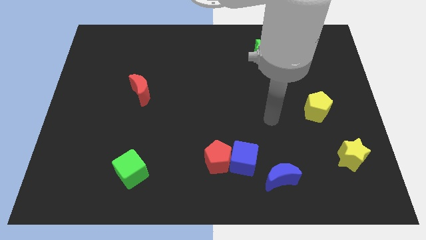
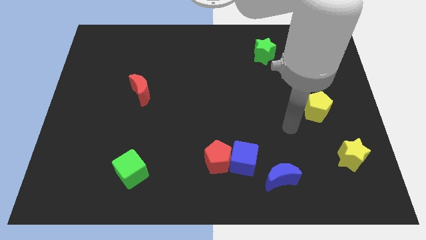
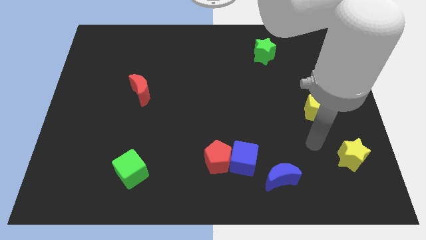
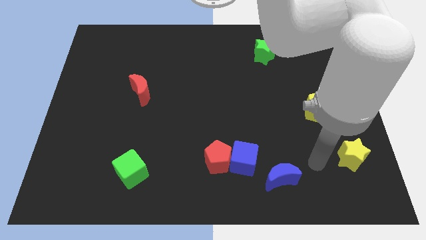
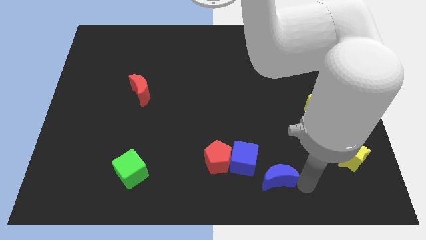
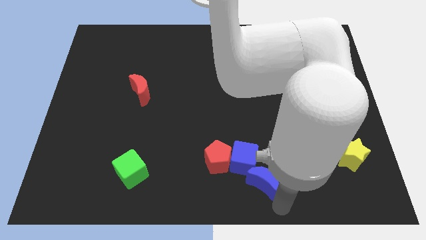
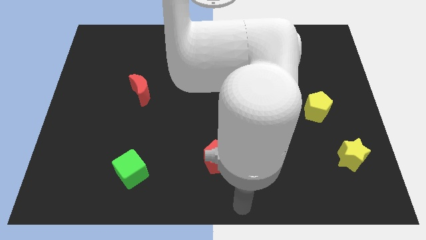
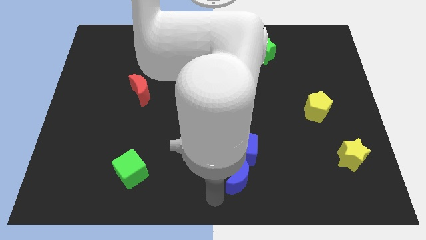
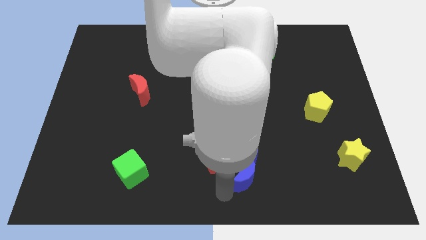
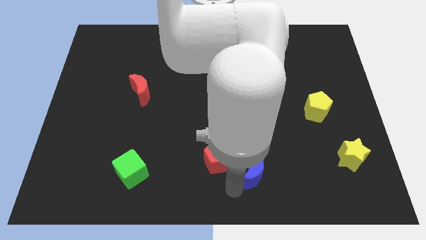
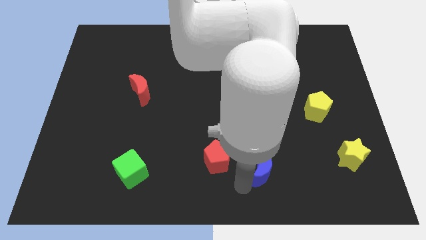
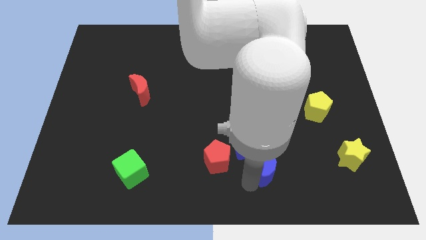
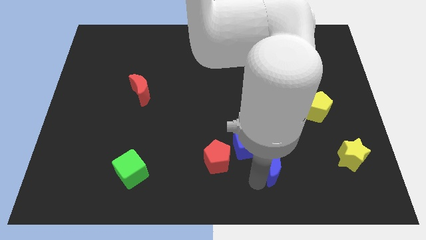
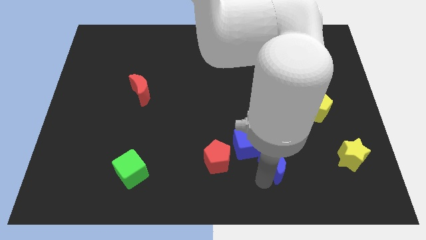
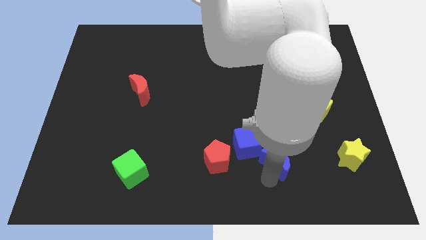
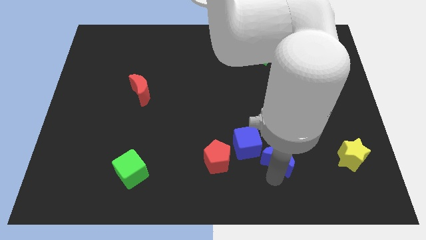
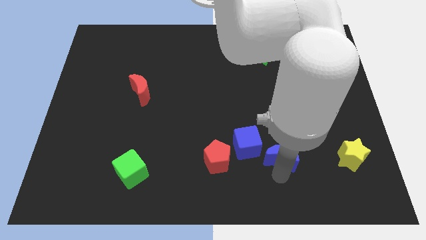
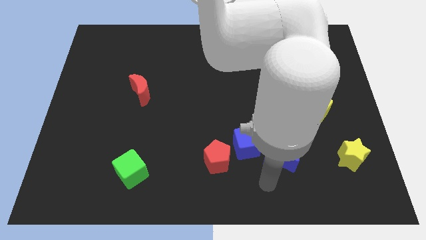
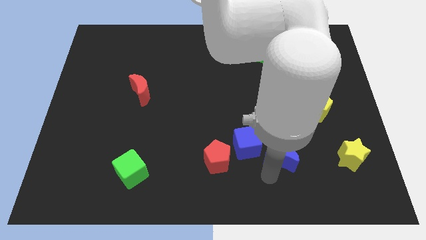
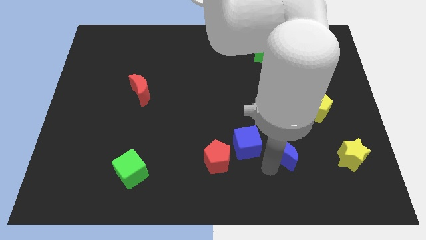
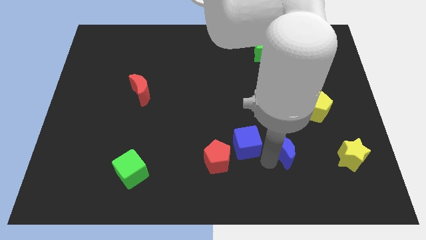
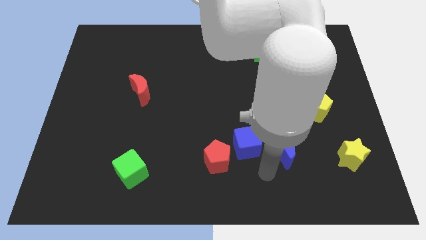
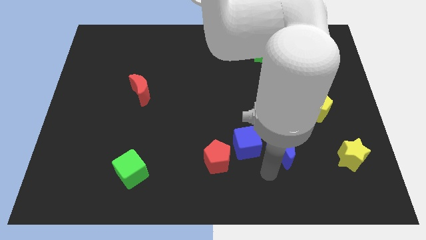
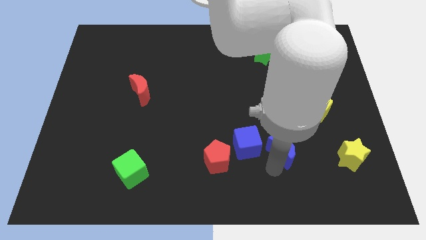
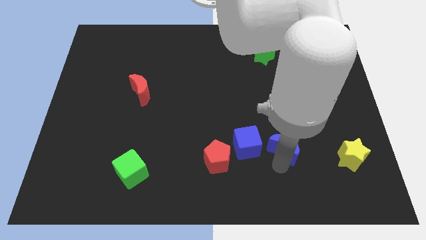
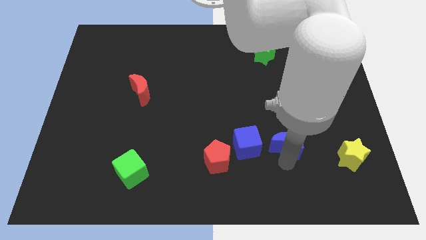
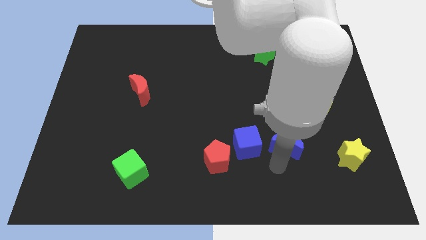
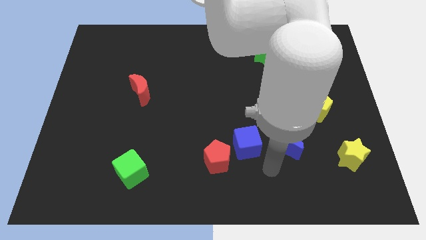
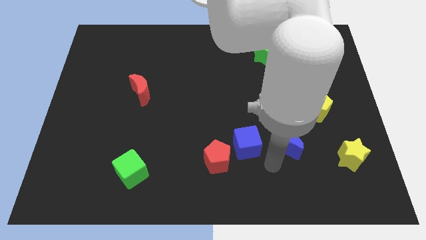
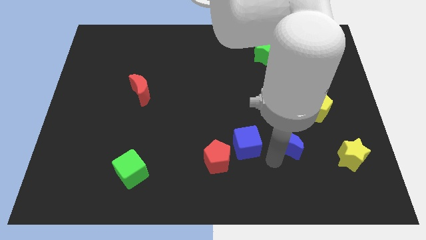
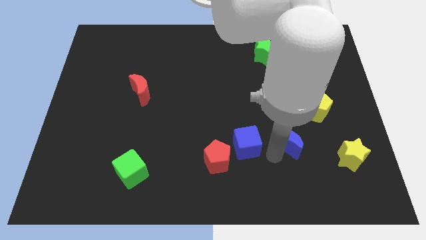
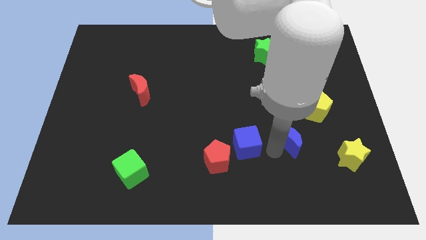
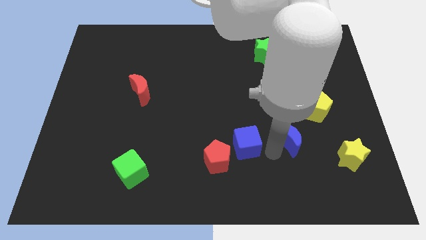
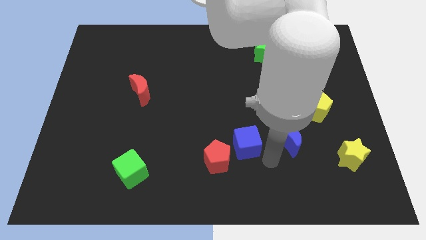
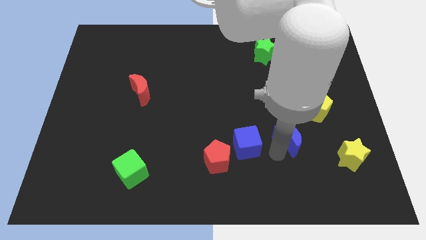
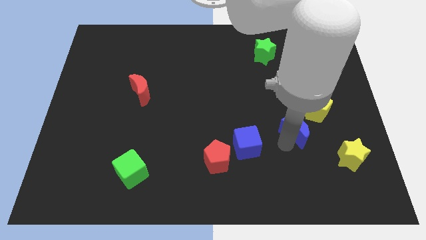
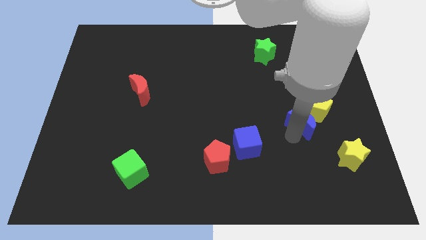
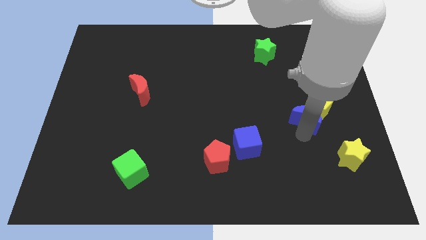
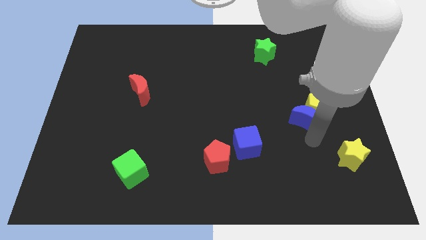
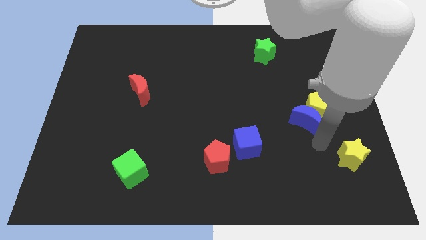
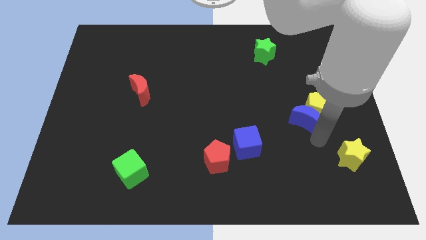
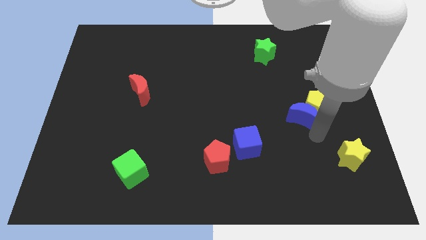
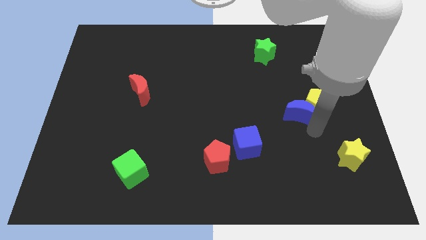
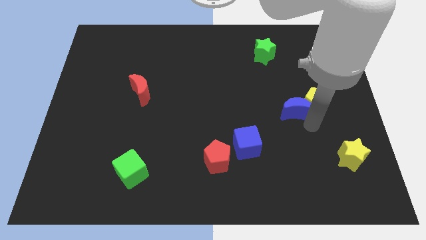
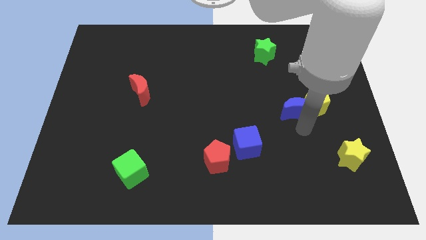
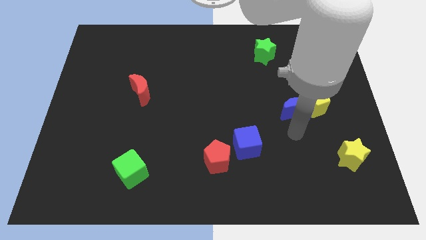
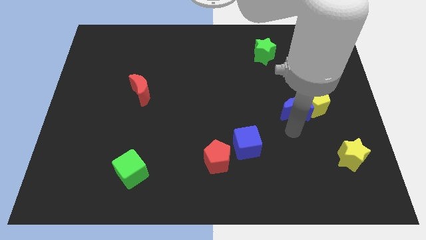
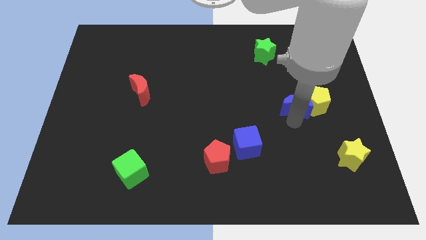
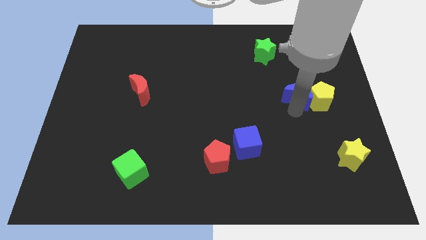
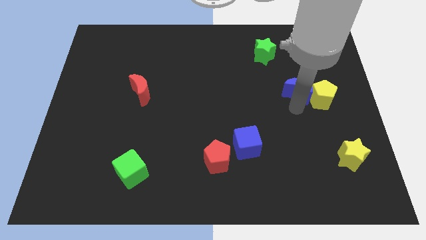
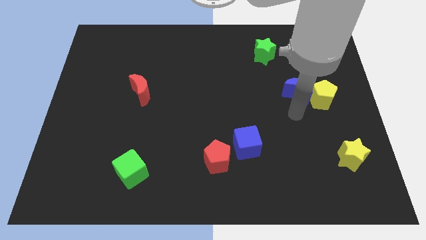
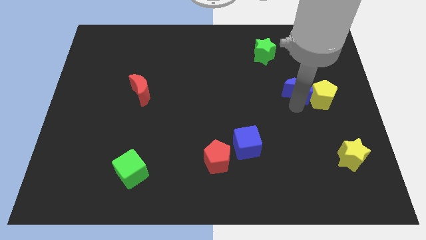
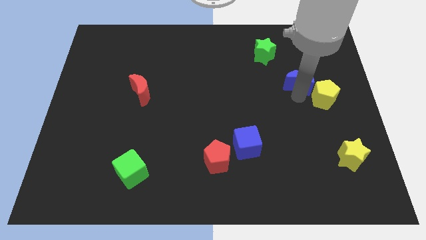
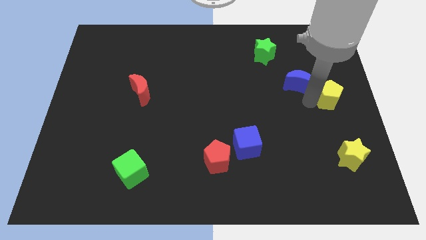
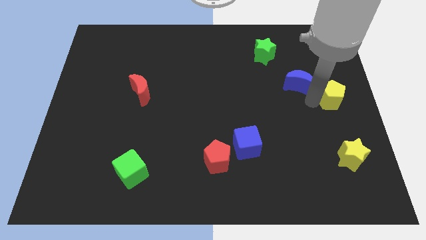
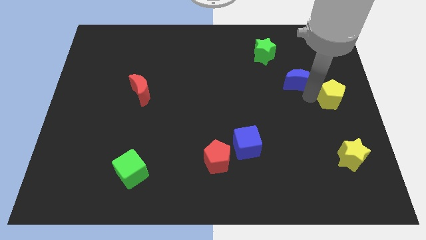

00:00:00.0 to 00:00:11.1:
push the blue moon diagonally down and to the right of the green star

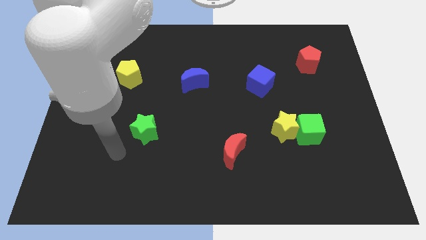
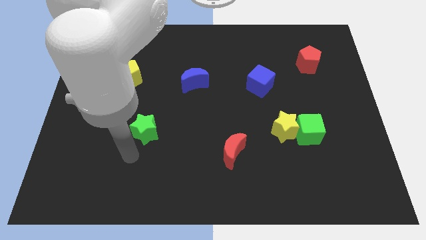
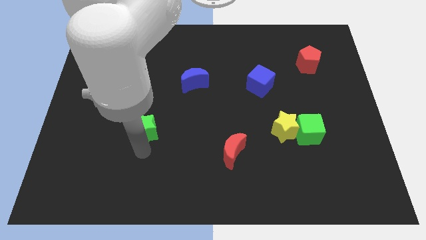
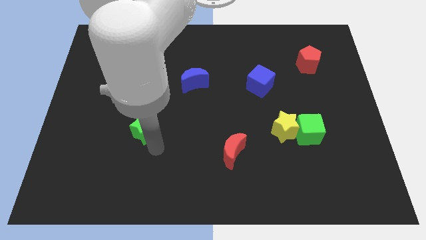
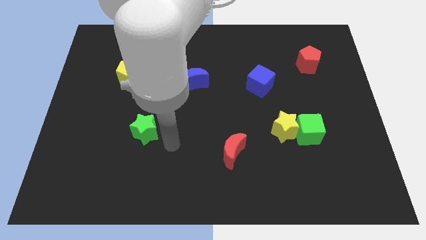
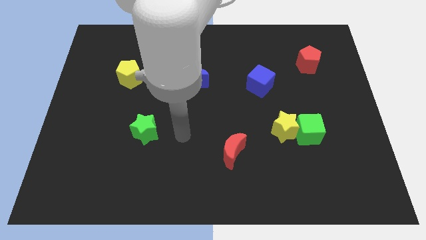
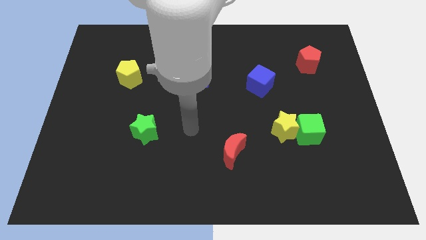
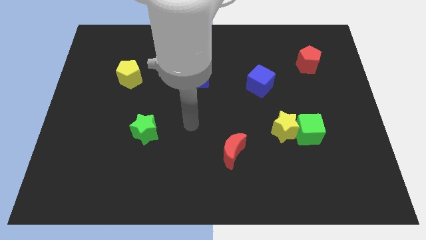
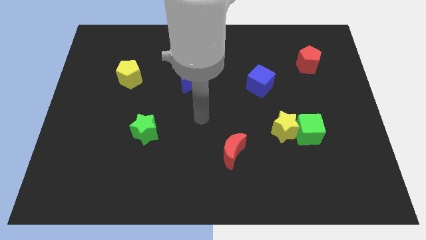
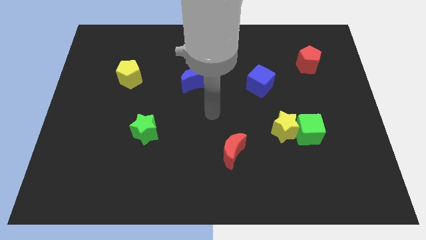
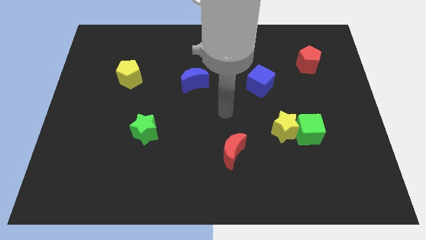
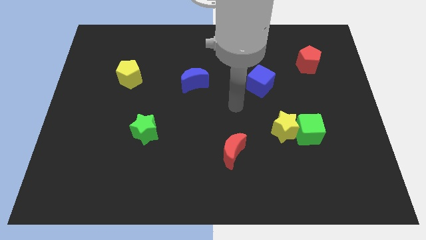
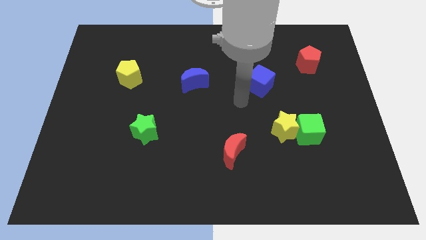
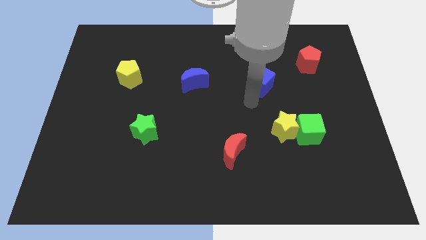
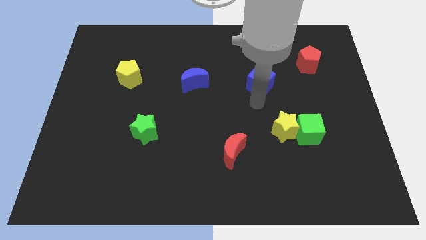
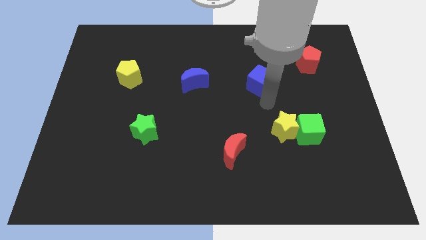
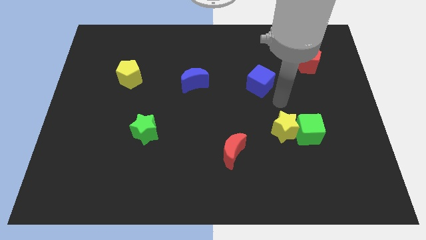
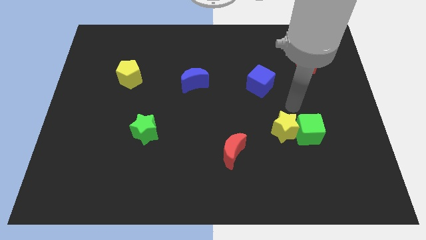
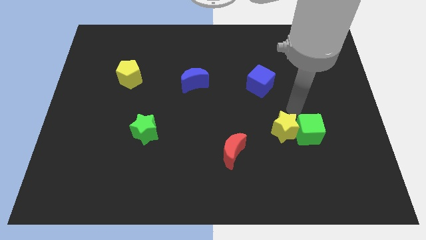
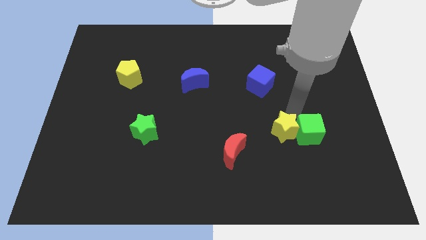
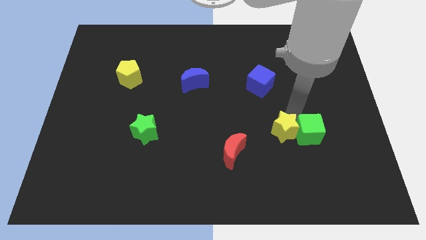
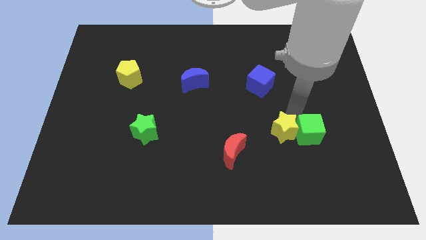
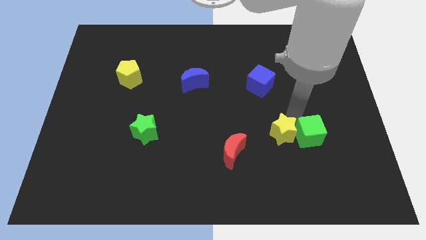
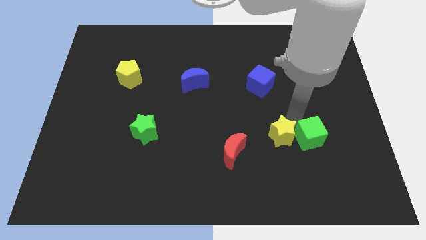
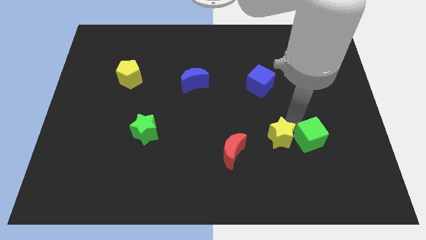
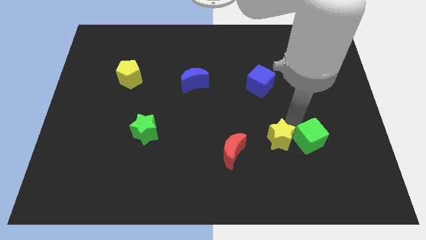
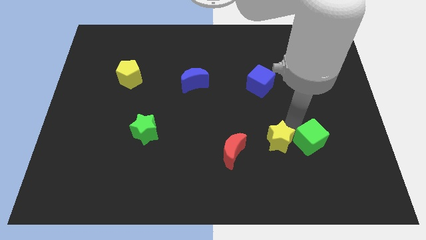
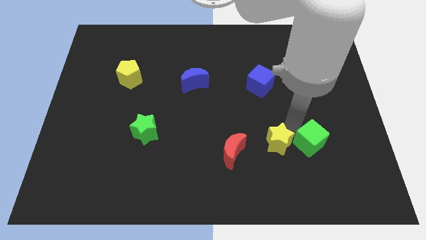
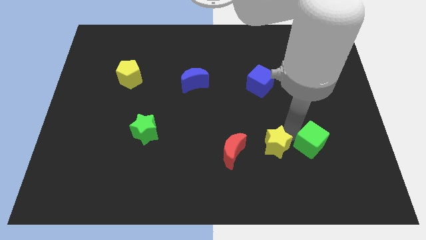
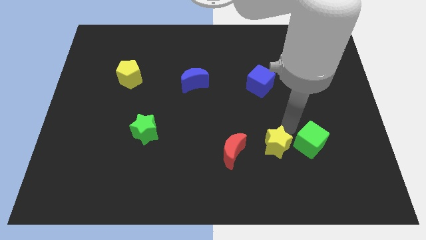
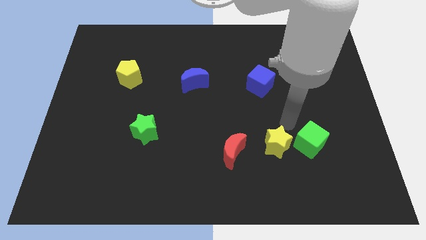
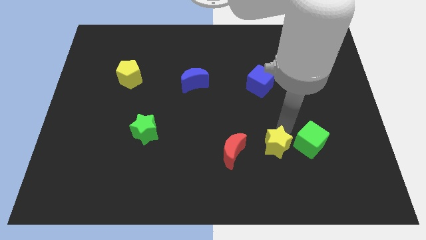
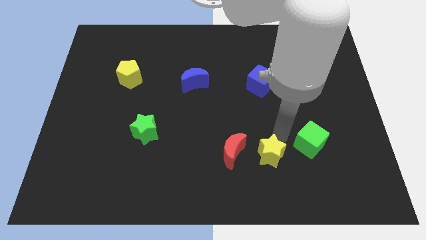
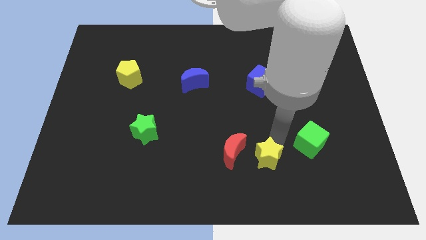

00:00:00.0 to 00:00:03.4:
slide the yellow star to the bottom right of the red moon
